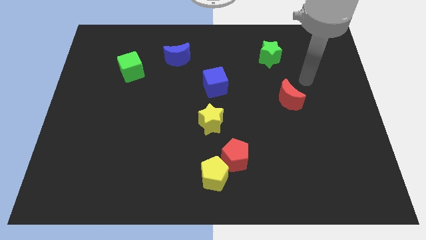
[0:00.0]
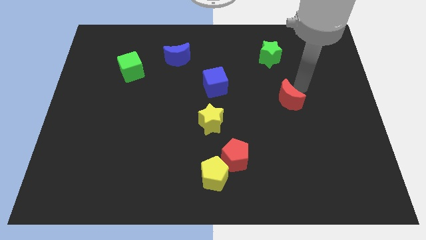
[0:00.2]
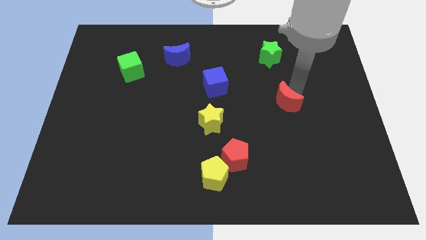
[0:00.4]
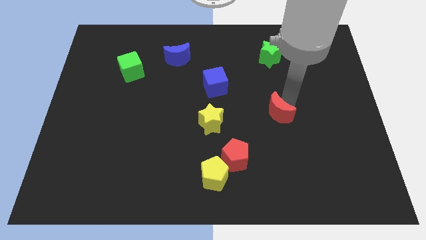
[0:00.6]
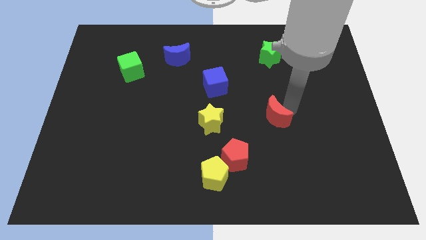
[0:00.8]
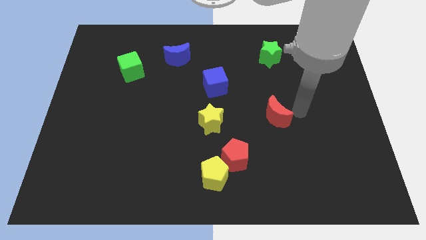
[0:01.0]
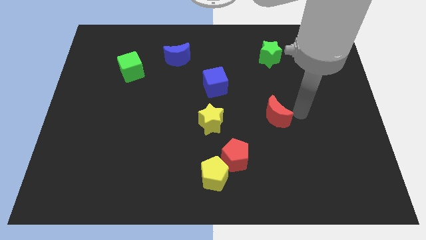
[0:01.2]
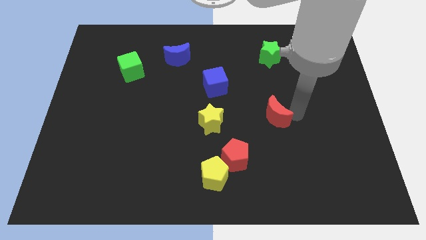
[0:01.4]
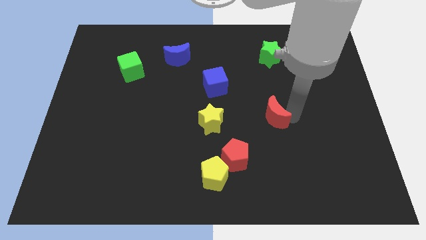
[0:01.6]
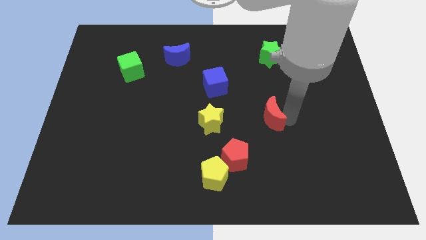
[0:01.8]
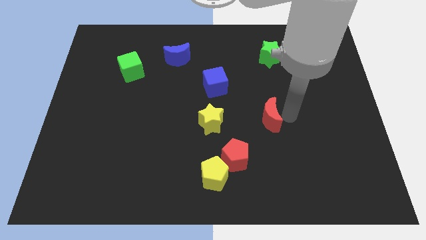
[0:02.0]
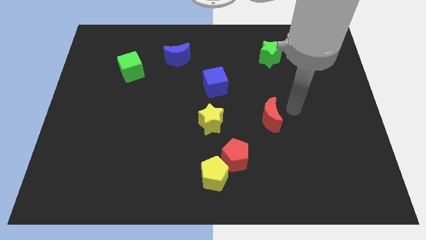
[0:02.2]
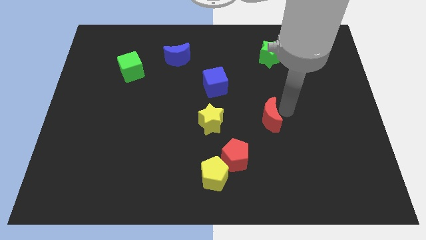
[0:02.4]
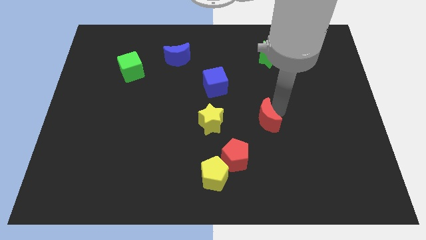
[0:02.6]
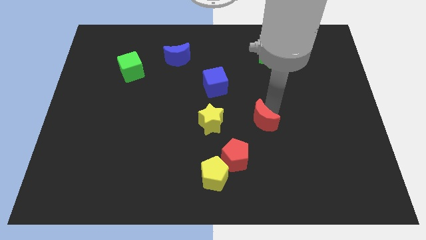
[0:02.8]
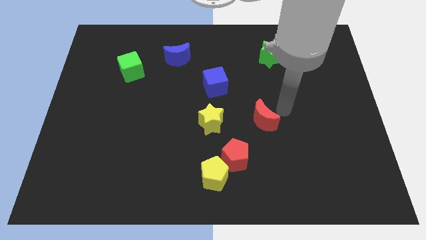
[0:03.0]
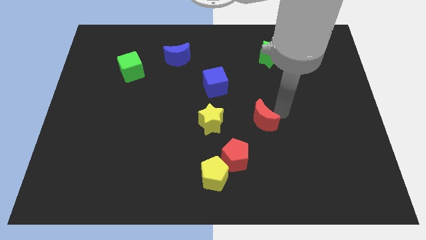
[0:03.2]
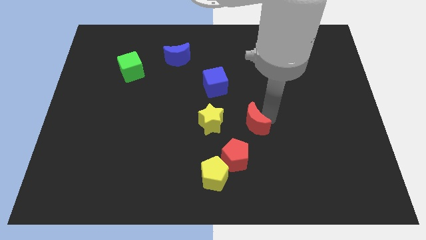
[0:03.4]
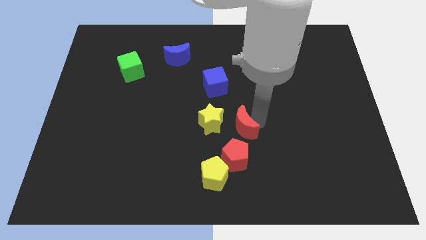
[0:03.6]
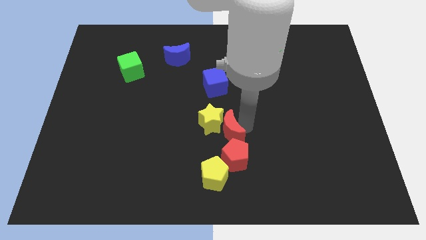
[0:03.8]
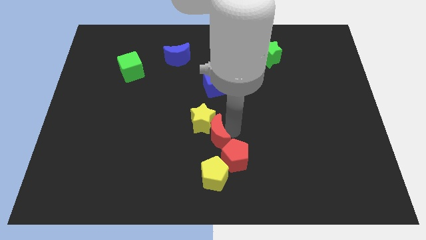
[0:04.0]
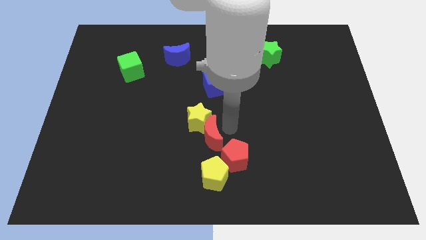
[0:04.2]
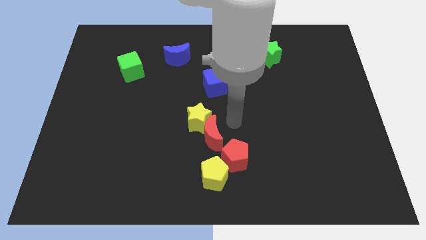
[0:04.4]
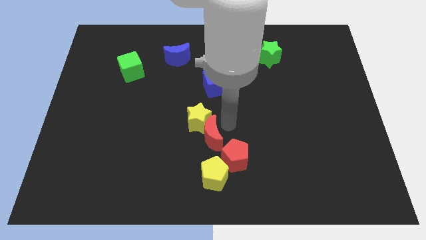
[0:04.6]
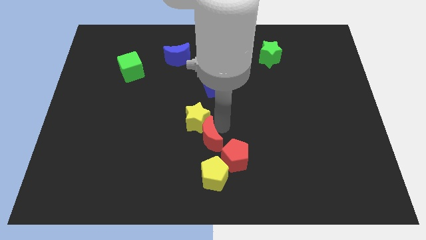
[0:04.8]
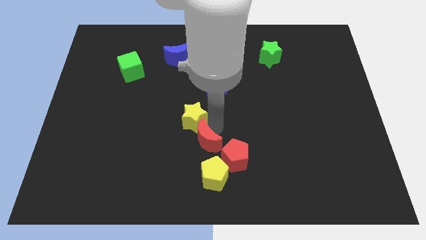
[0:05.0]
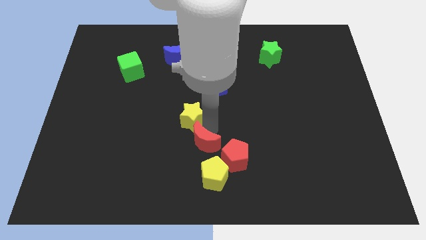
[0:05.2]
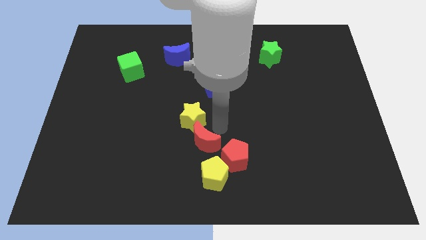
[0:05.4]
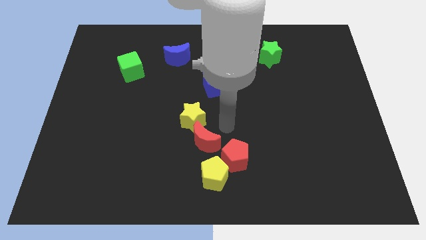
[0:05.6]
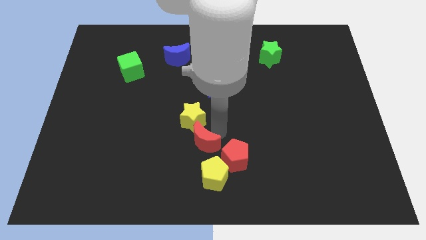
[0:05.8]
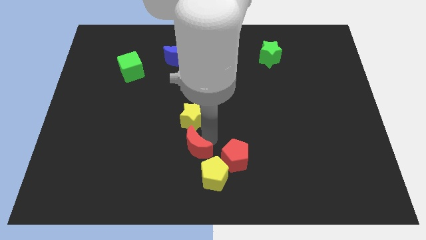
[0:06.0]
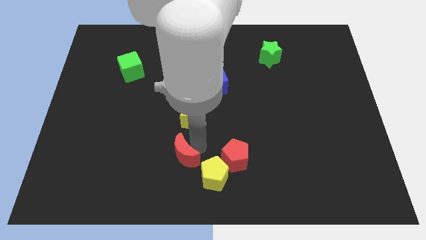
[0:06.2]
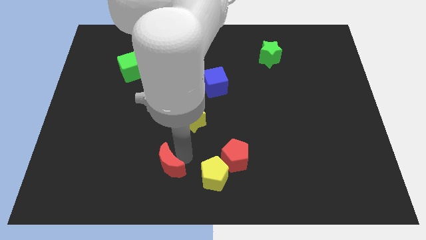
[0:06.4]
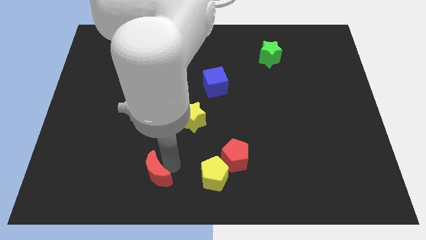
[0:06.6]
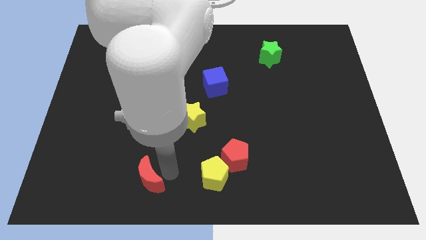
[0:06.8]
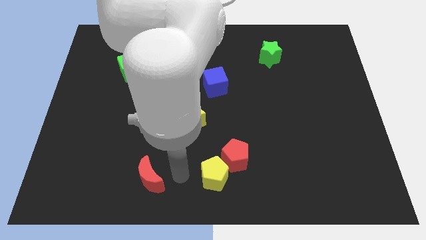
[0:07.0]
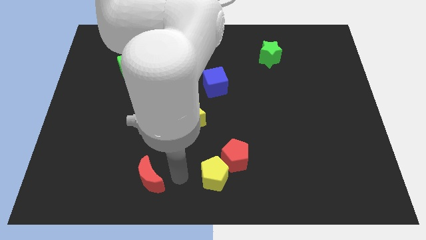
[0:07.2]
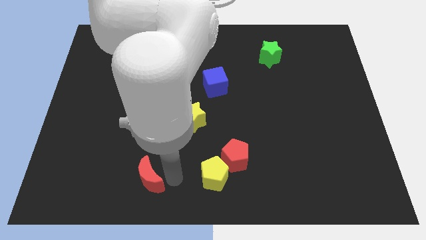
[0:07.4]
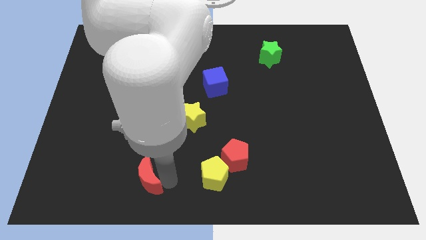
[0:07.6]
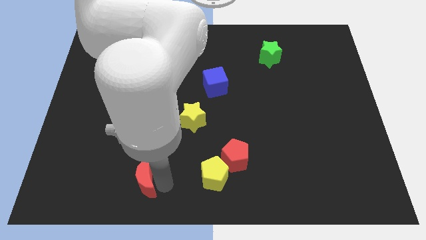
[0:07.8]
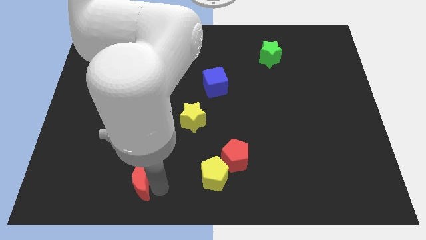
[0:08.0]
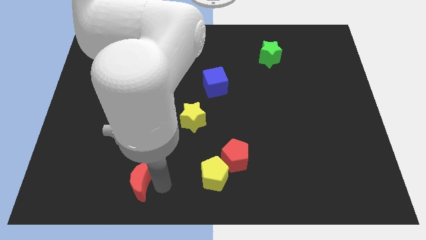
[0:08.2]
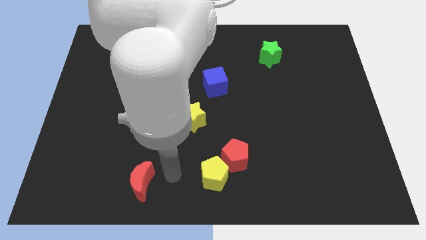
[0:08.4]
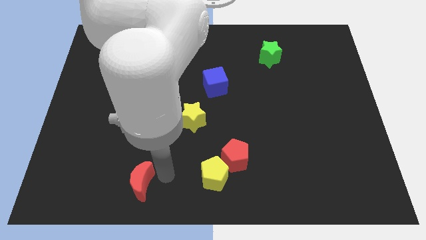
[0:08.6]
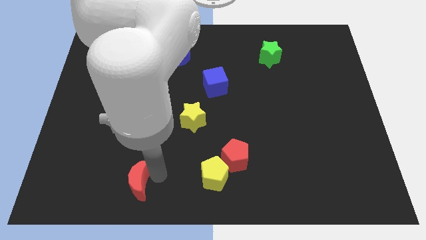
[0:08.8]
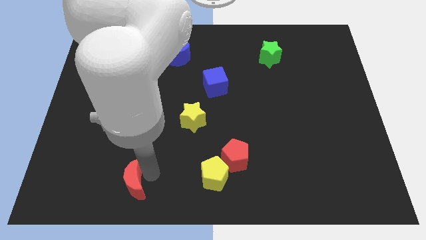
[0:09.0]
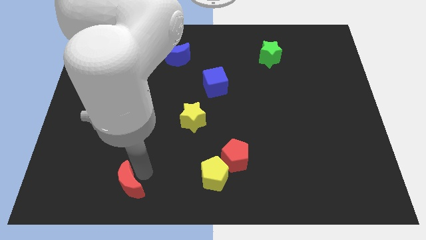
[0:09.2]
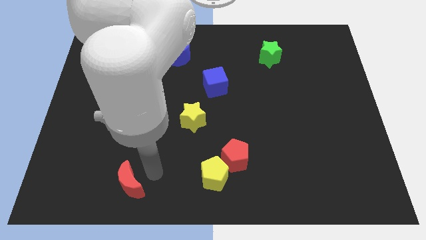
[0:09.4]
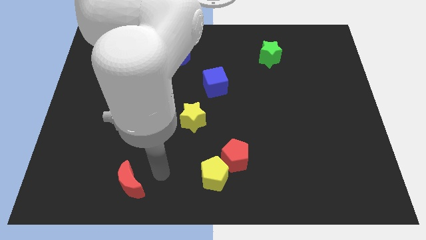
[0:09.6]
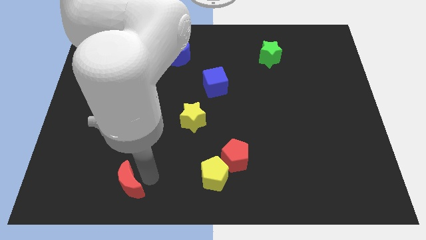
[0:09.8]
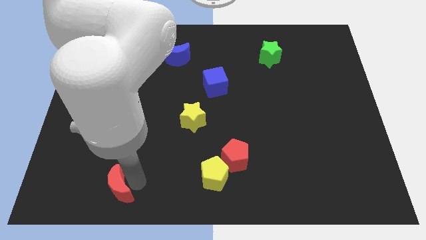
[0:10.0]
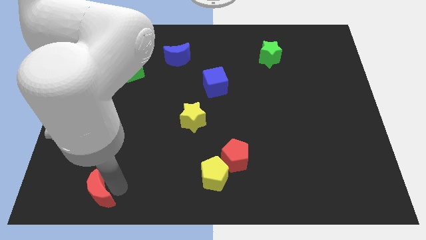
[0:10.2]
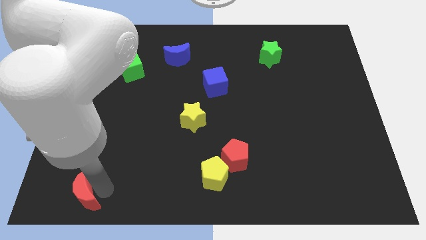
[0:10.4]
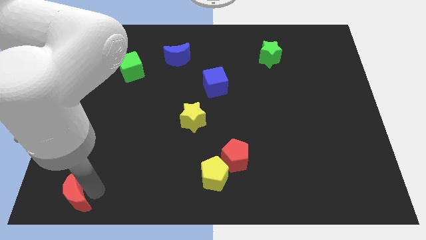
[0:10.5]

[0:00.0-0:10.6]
slide the red moon to the bottom left

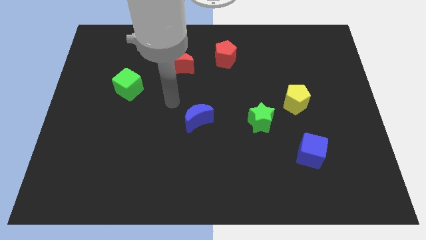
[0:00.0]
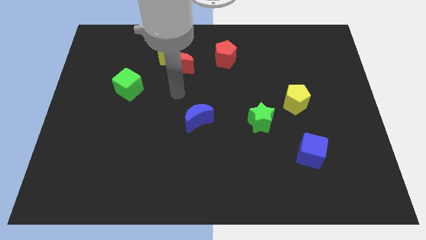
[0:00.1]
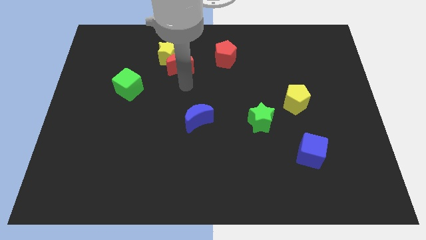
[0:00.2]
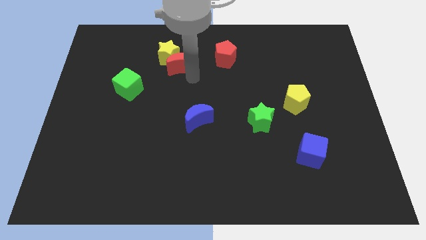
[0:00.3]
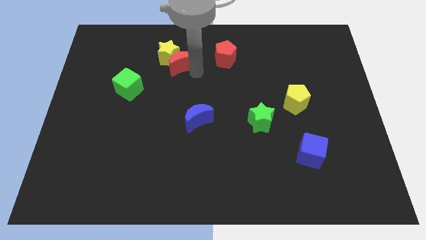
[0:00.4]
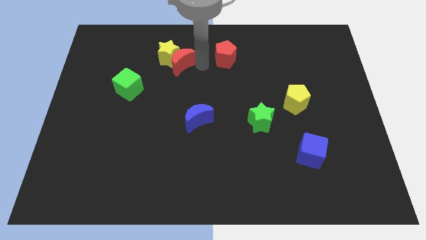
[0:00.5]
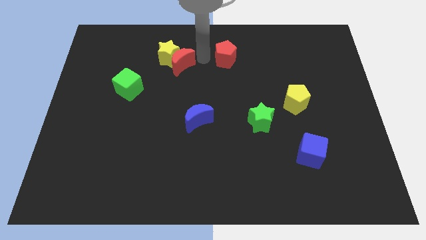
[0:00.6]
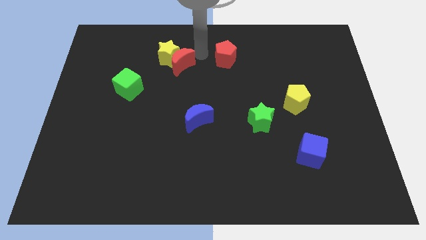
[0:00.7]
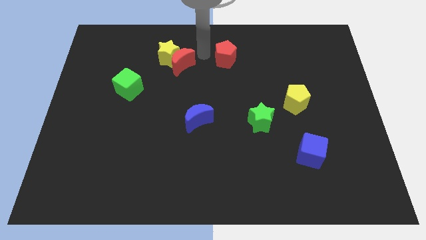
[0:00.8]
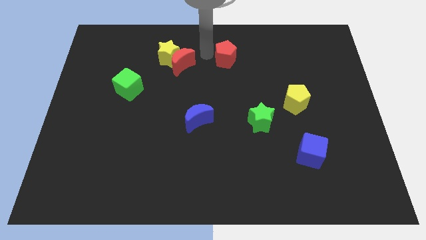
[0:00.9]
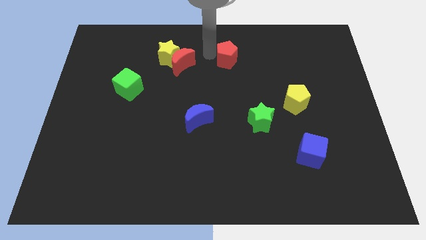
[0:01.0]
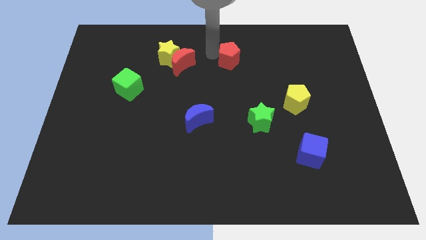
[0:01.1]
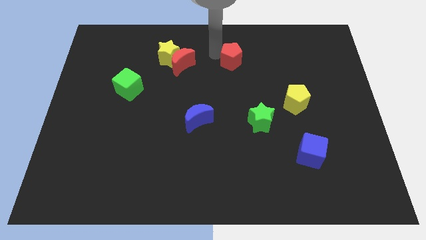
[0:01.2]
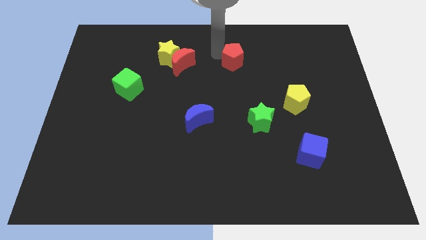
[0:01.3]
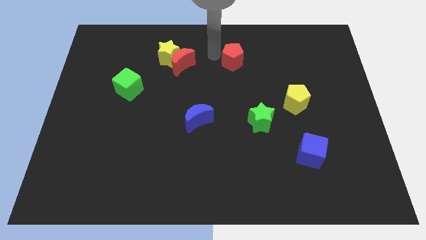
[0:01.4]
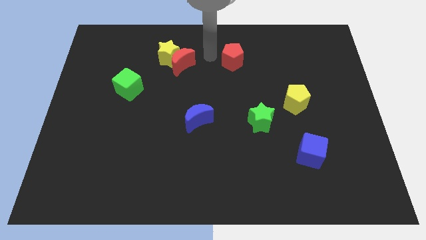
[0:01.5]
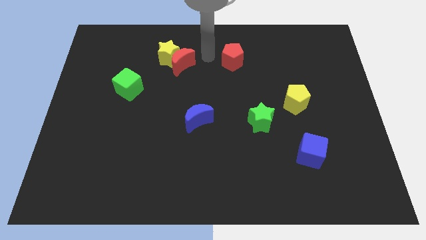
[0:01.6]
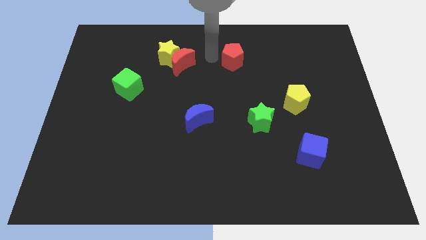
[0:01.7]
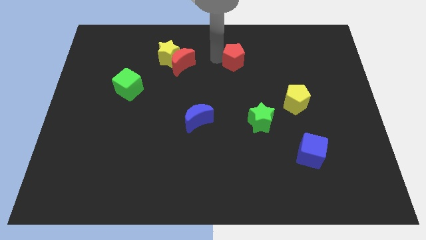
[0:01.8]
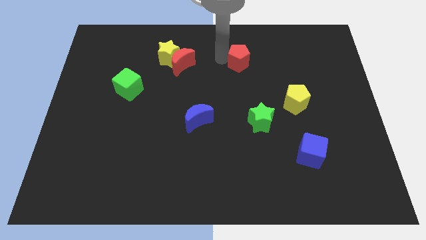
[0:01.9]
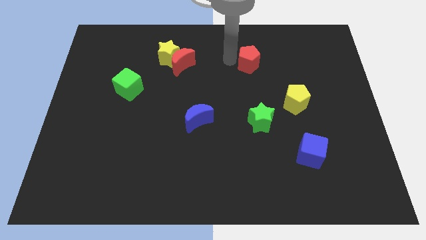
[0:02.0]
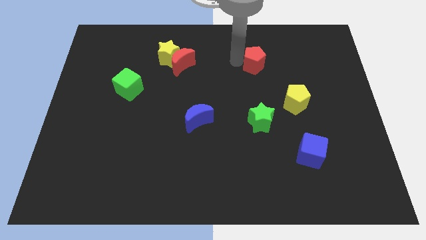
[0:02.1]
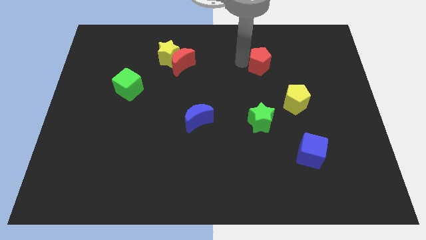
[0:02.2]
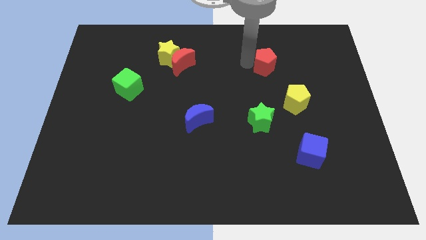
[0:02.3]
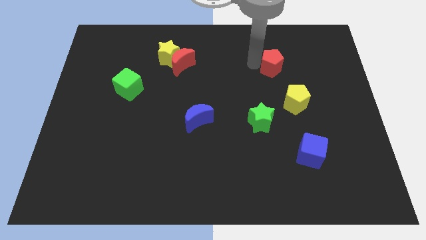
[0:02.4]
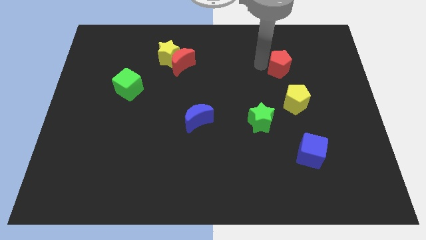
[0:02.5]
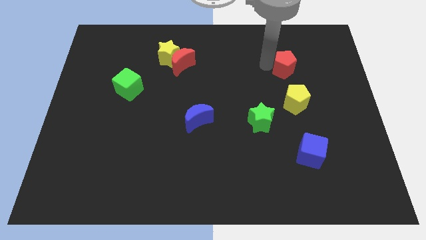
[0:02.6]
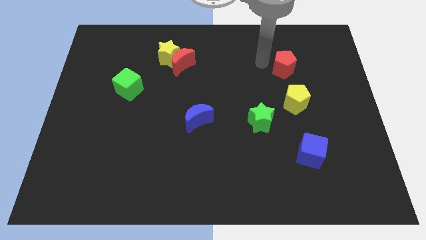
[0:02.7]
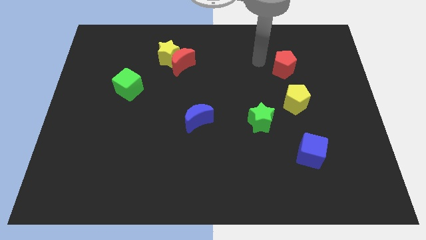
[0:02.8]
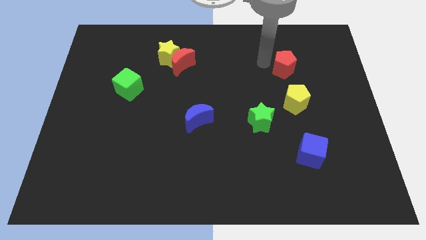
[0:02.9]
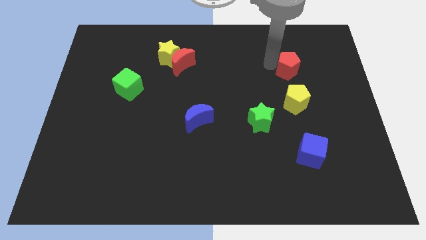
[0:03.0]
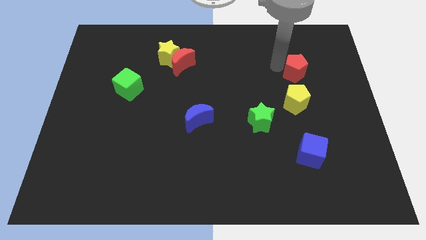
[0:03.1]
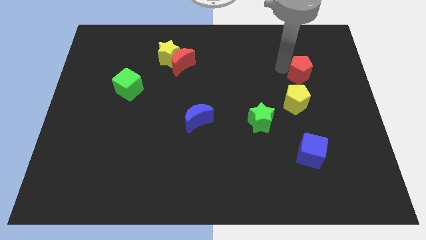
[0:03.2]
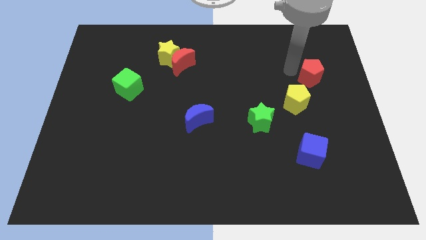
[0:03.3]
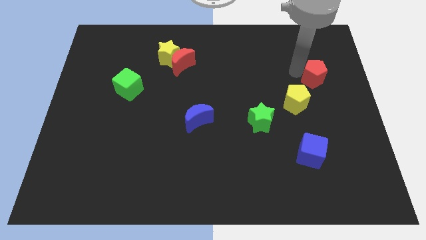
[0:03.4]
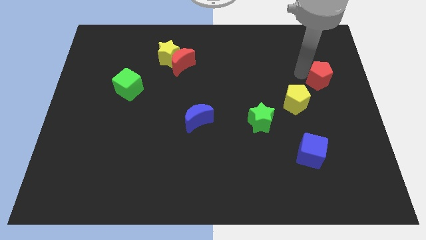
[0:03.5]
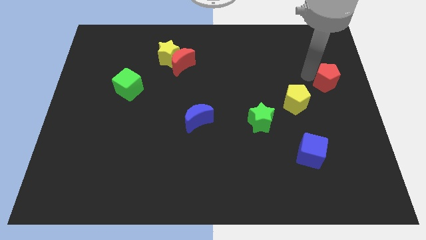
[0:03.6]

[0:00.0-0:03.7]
put the red pentagon to the center right
